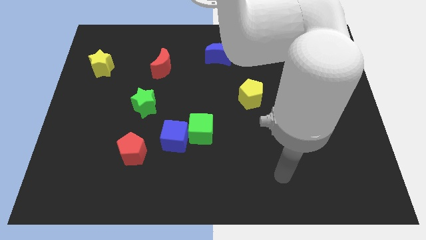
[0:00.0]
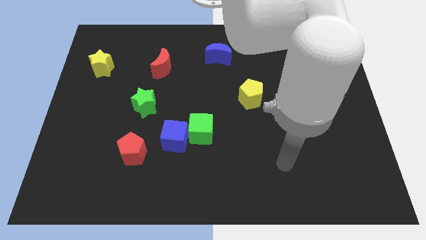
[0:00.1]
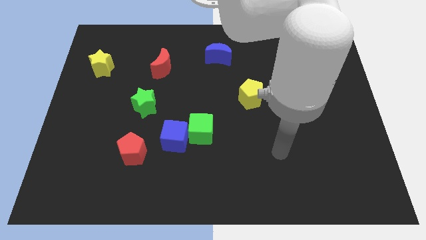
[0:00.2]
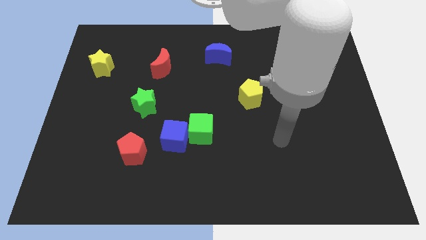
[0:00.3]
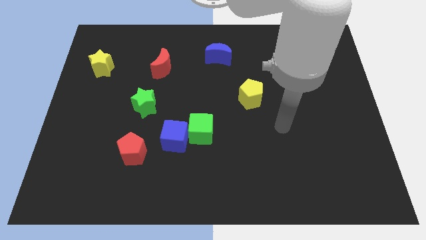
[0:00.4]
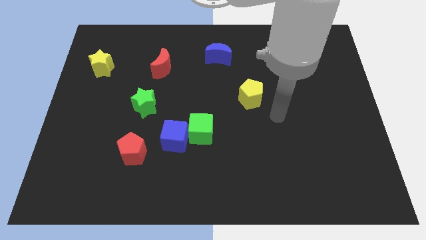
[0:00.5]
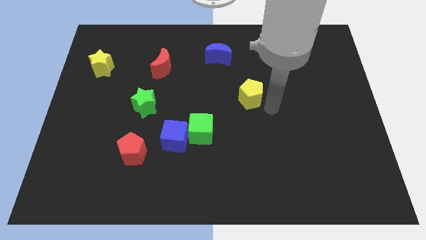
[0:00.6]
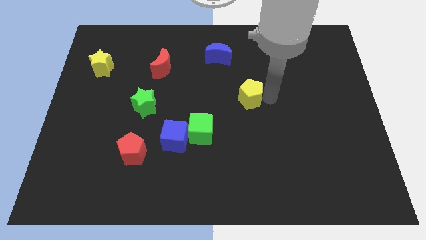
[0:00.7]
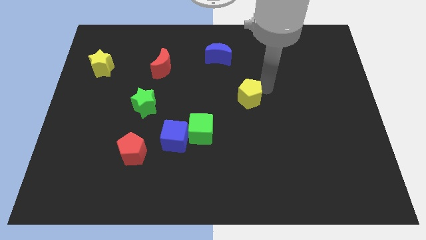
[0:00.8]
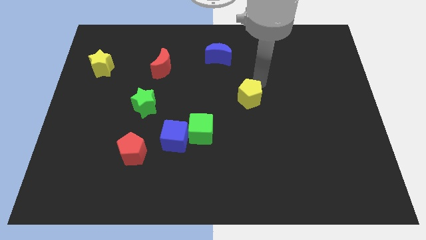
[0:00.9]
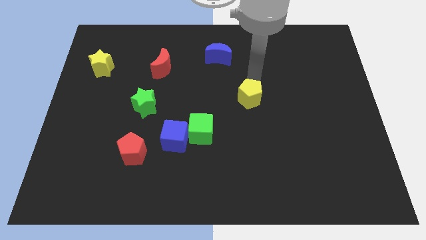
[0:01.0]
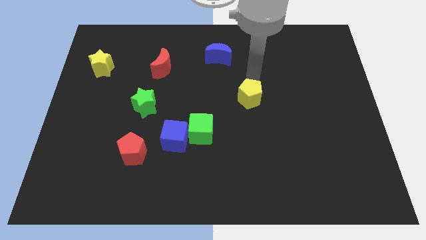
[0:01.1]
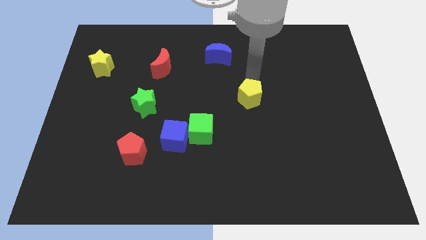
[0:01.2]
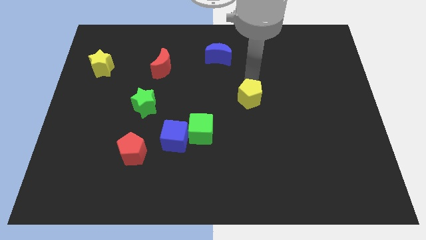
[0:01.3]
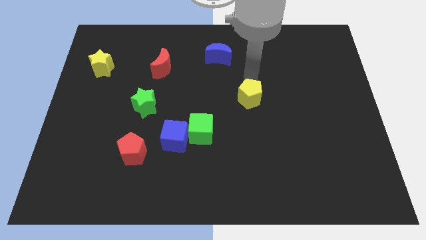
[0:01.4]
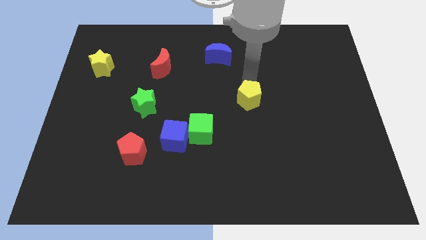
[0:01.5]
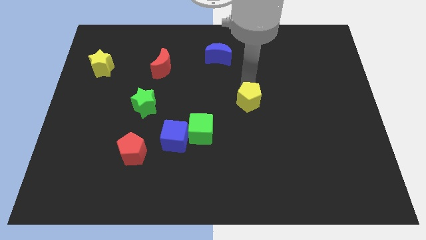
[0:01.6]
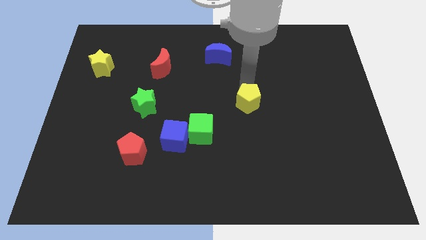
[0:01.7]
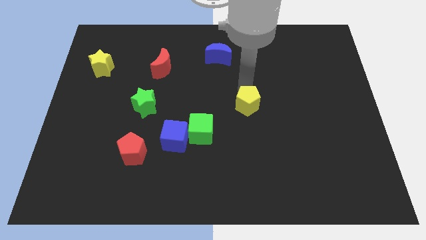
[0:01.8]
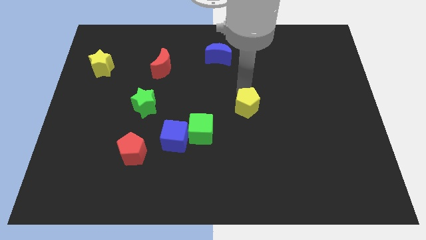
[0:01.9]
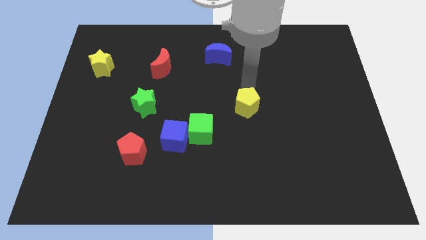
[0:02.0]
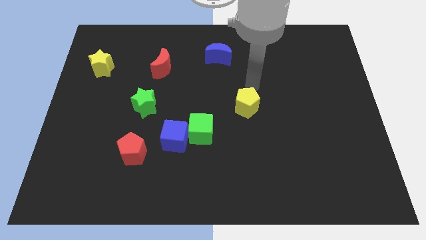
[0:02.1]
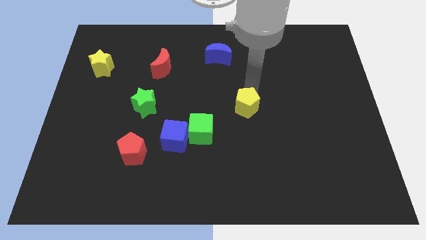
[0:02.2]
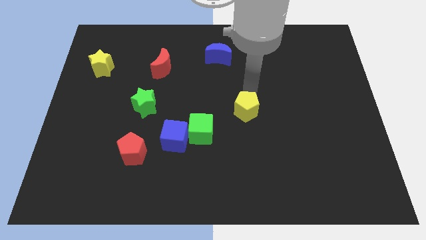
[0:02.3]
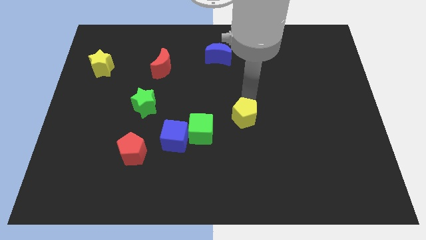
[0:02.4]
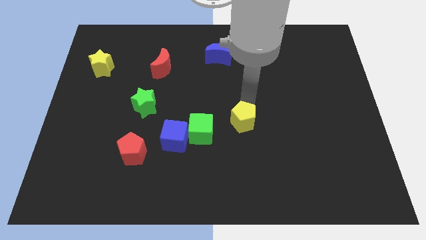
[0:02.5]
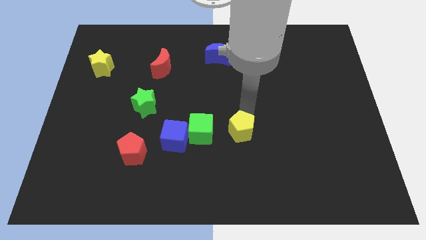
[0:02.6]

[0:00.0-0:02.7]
push the yellow pentagon downwards and to the left a little

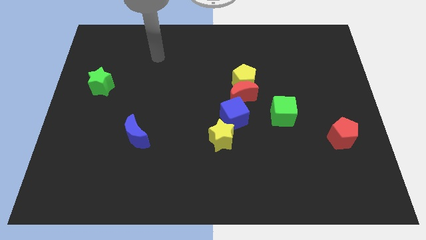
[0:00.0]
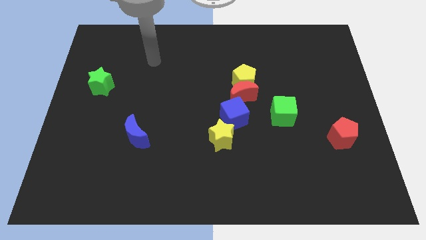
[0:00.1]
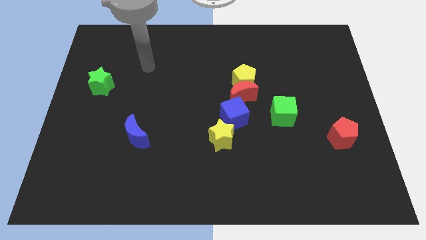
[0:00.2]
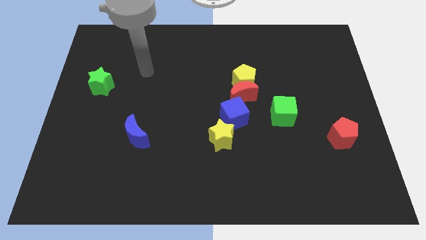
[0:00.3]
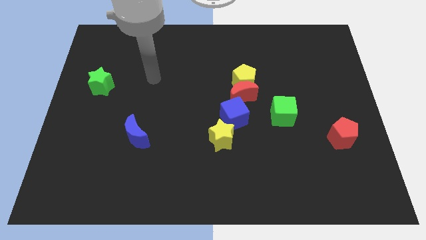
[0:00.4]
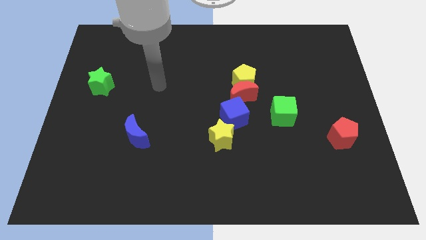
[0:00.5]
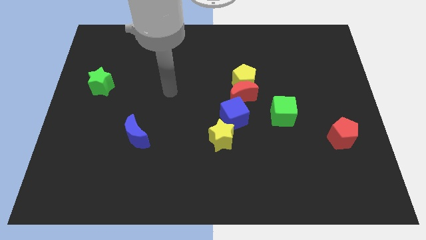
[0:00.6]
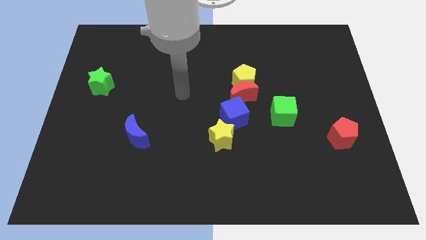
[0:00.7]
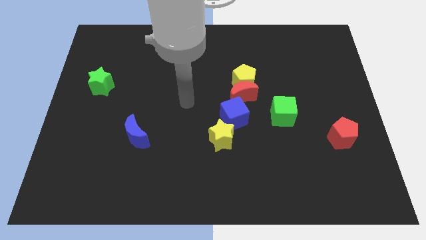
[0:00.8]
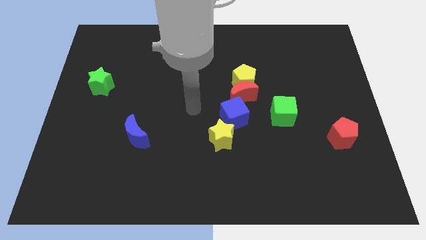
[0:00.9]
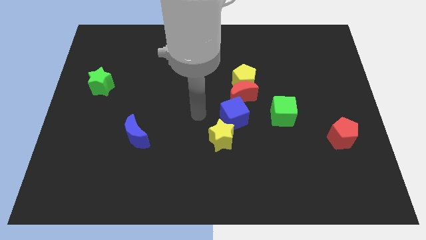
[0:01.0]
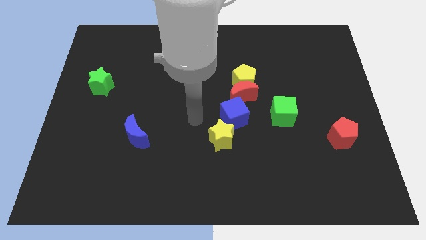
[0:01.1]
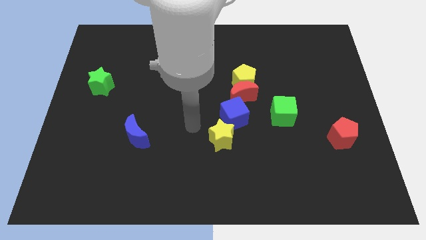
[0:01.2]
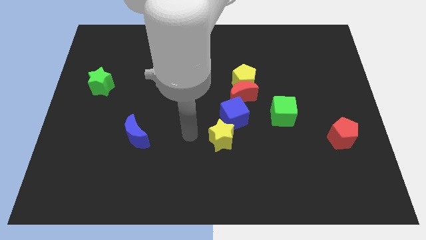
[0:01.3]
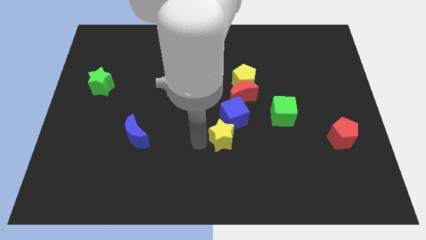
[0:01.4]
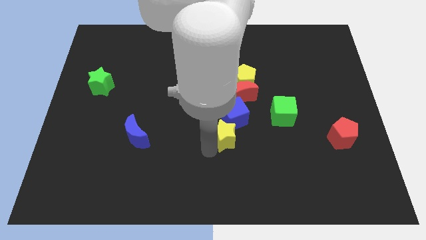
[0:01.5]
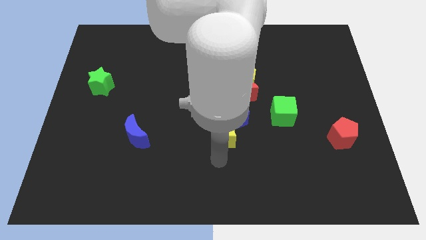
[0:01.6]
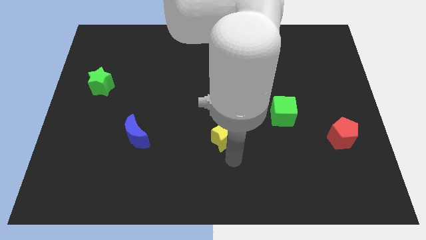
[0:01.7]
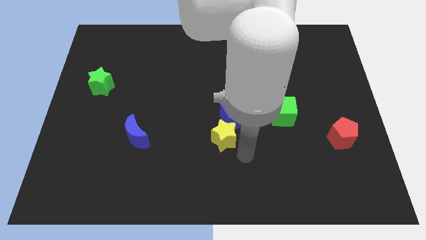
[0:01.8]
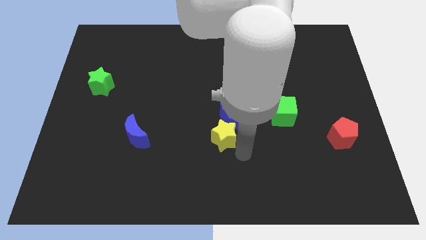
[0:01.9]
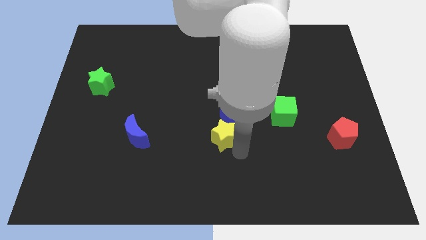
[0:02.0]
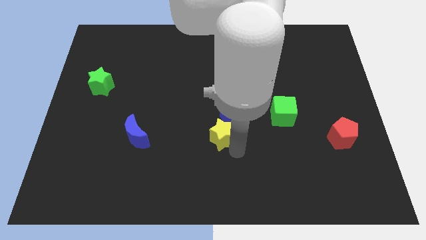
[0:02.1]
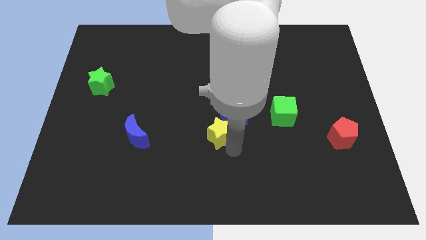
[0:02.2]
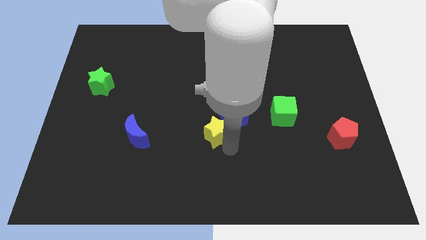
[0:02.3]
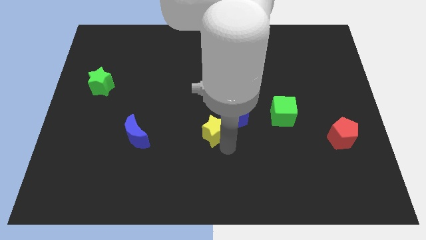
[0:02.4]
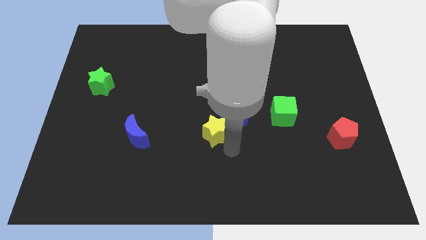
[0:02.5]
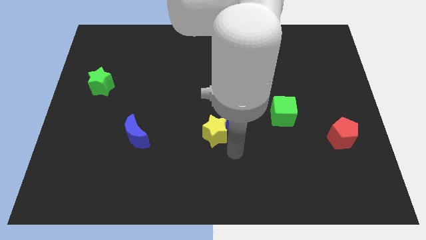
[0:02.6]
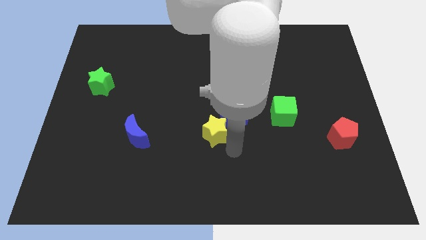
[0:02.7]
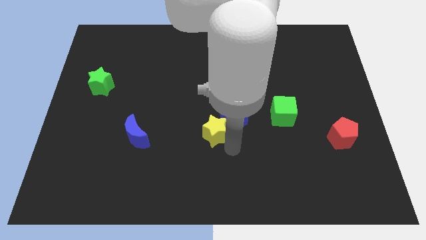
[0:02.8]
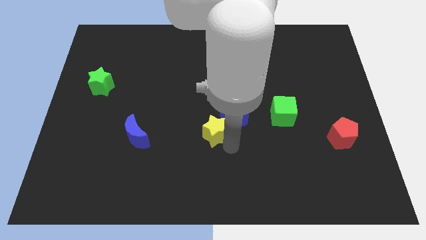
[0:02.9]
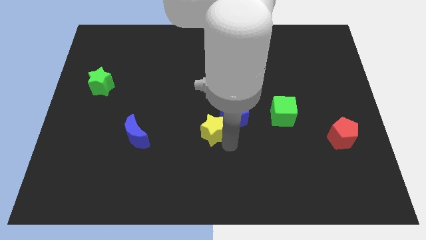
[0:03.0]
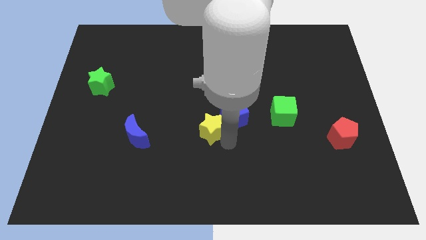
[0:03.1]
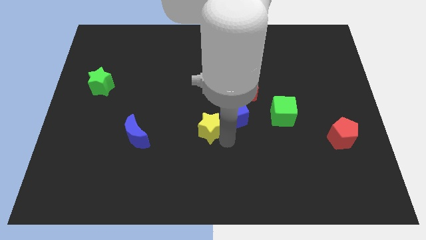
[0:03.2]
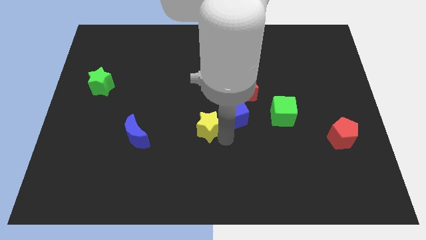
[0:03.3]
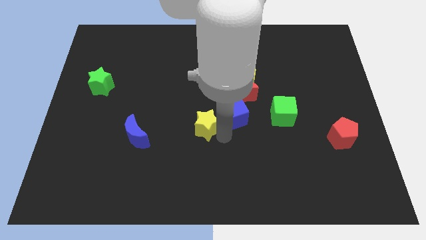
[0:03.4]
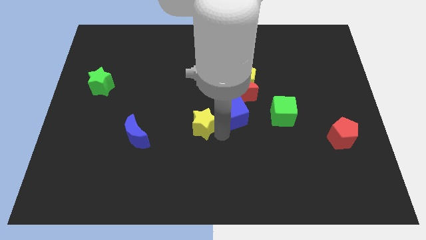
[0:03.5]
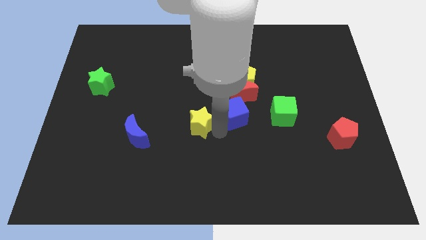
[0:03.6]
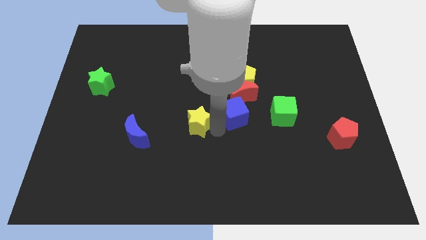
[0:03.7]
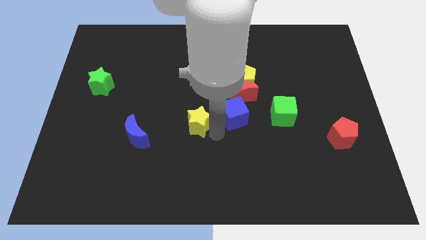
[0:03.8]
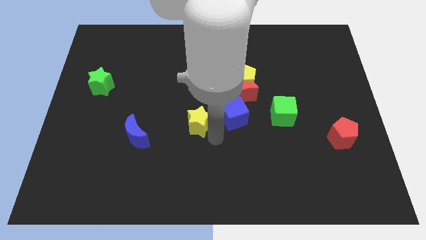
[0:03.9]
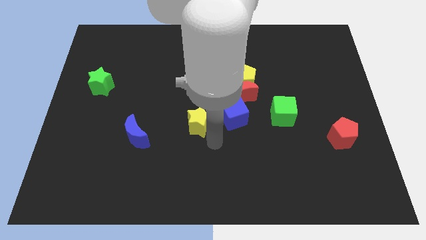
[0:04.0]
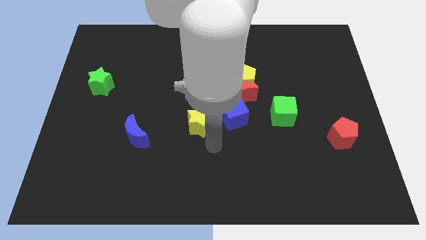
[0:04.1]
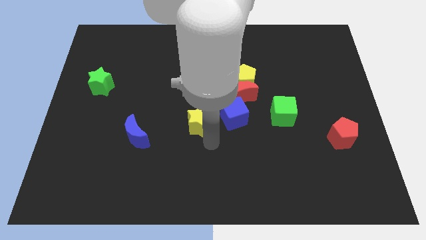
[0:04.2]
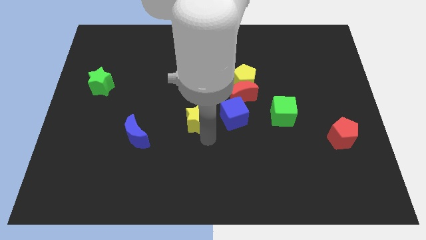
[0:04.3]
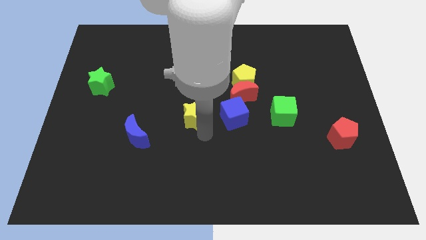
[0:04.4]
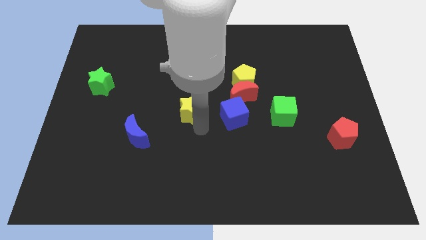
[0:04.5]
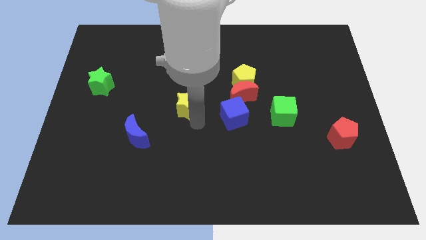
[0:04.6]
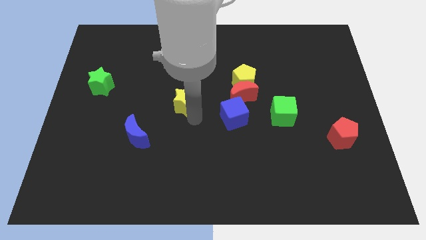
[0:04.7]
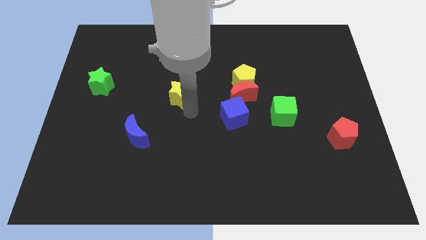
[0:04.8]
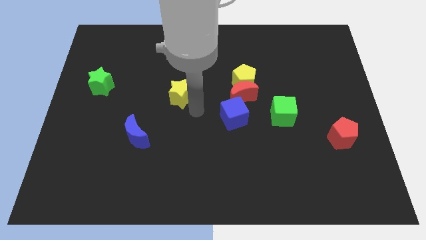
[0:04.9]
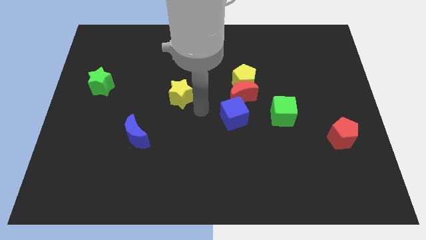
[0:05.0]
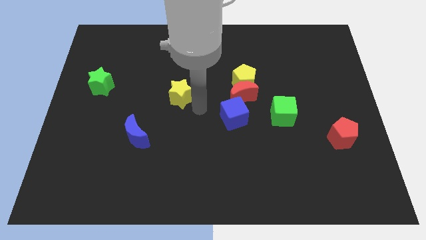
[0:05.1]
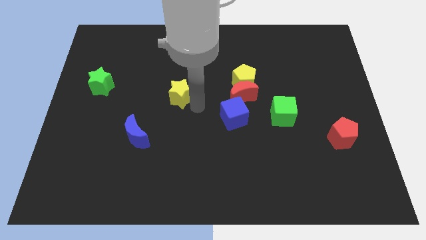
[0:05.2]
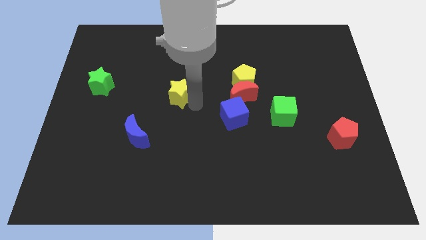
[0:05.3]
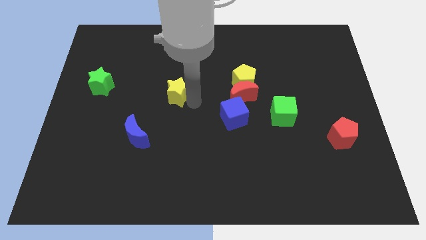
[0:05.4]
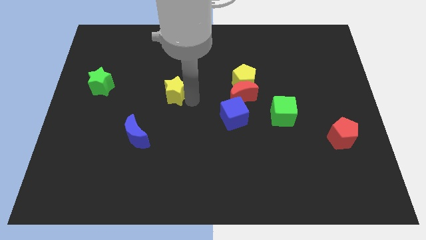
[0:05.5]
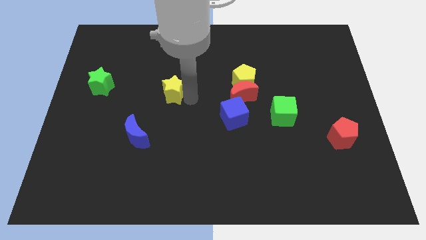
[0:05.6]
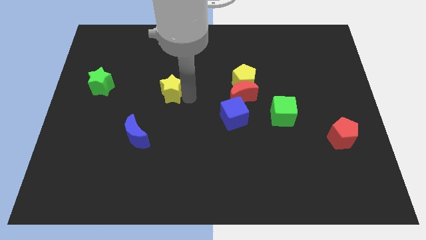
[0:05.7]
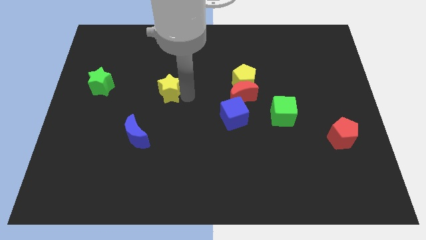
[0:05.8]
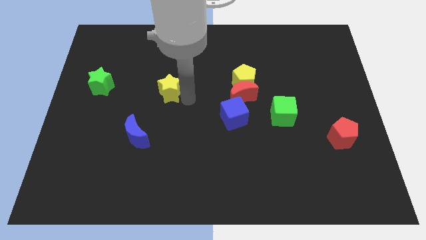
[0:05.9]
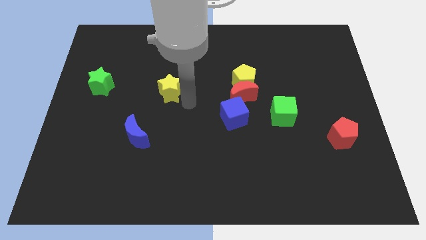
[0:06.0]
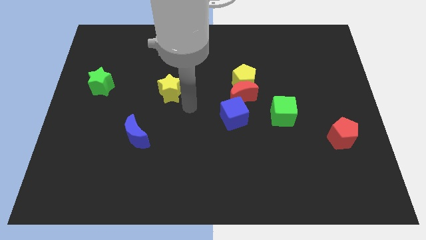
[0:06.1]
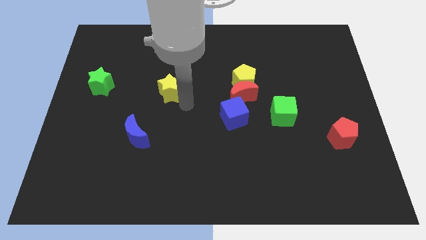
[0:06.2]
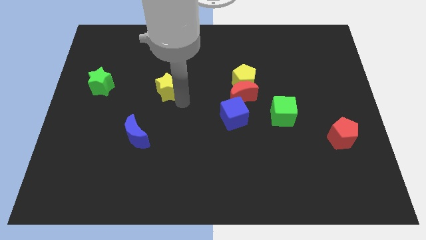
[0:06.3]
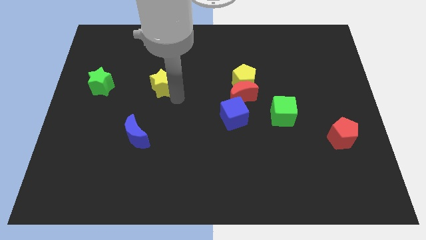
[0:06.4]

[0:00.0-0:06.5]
move the yellow star up and to the left diagonally
